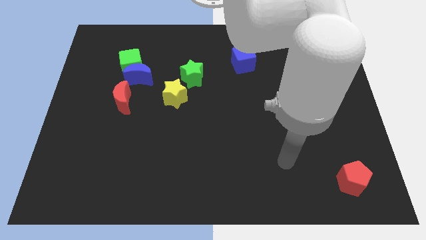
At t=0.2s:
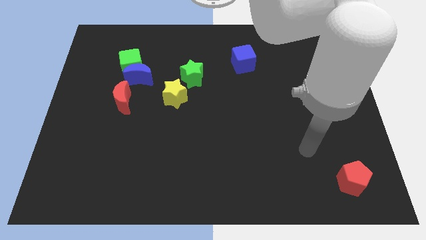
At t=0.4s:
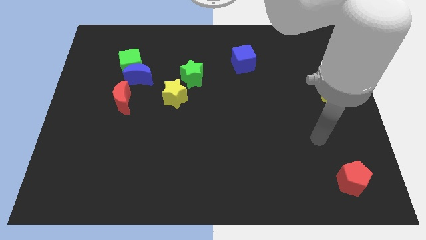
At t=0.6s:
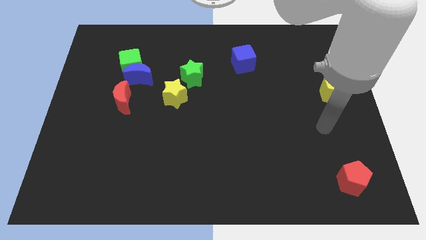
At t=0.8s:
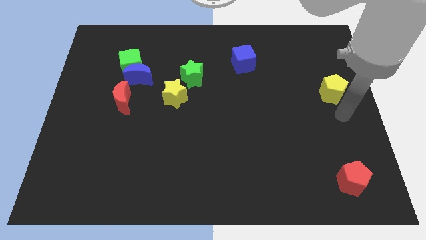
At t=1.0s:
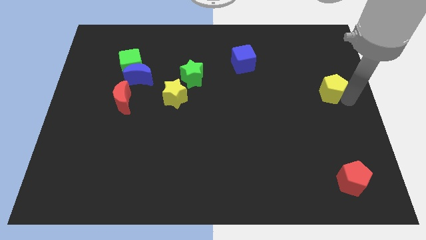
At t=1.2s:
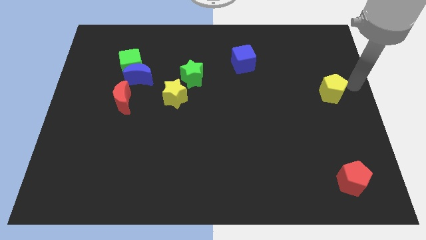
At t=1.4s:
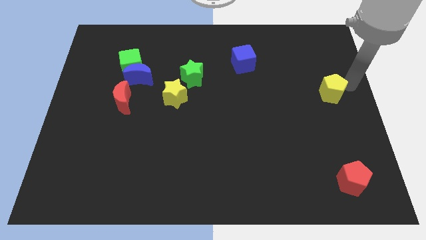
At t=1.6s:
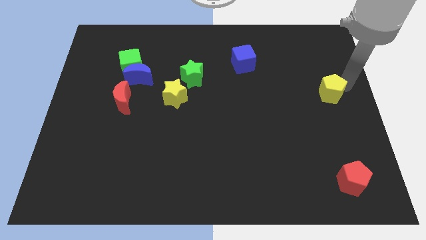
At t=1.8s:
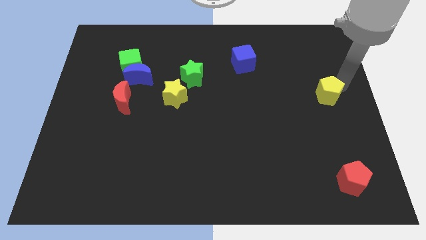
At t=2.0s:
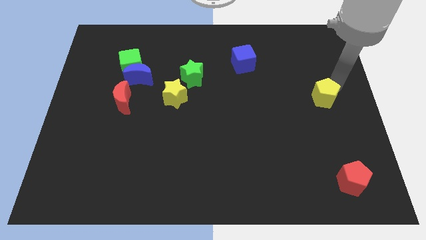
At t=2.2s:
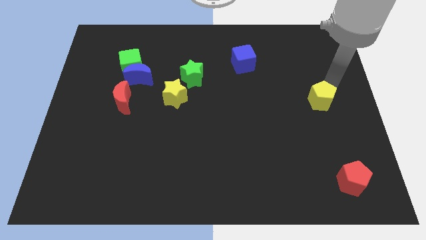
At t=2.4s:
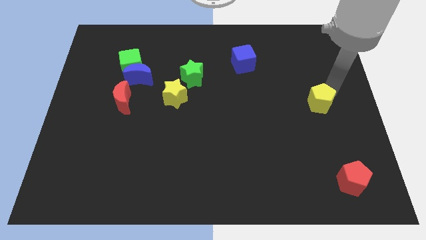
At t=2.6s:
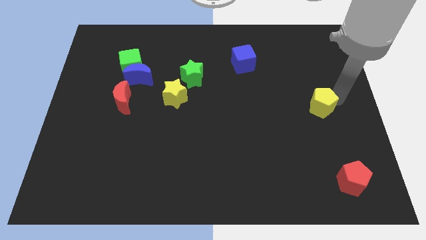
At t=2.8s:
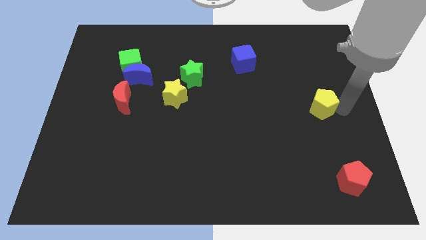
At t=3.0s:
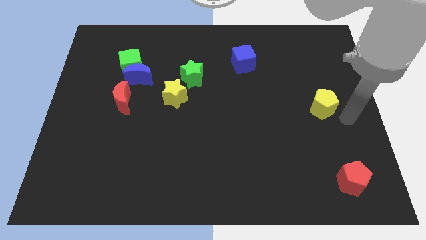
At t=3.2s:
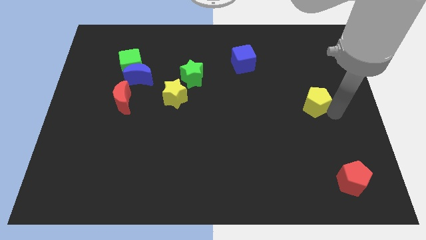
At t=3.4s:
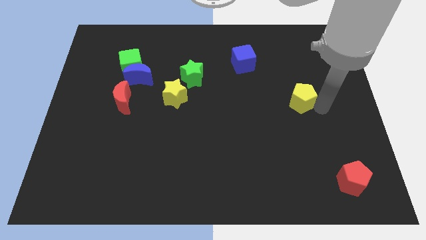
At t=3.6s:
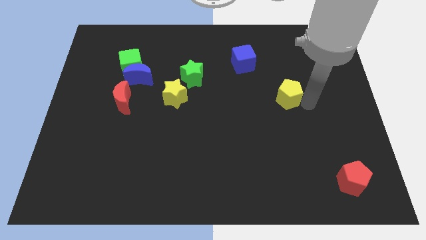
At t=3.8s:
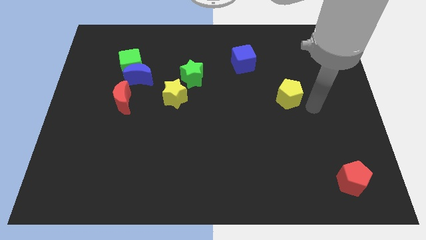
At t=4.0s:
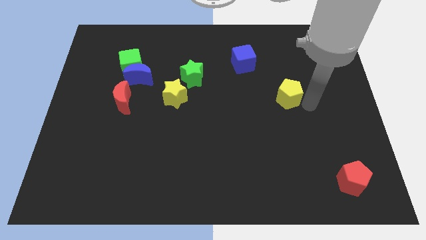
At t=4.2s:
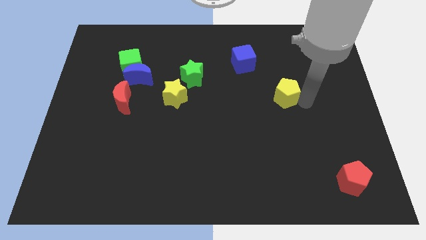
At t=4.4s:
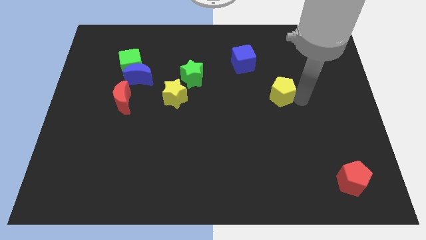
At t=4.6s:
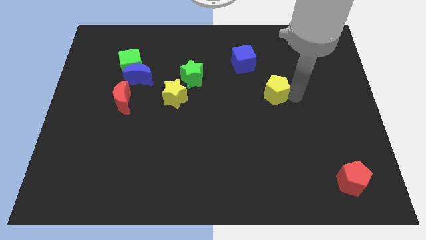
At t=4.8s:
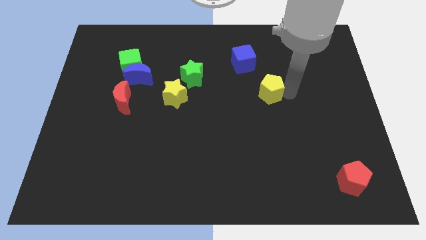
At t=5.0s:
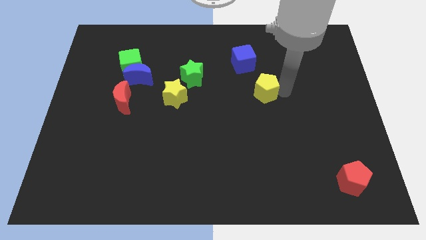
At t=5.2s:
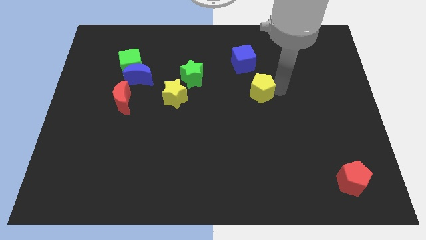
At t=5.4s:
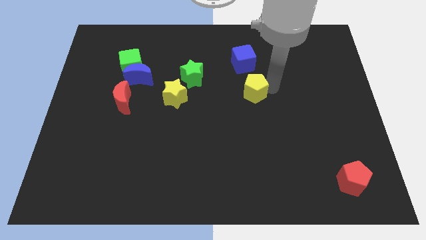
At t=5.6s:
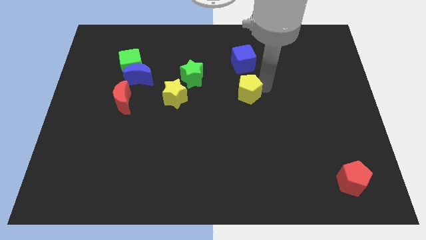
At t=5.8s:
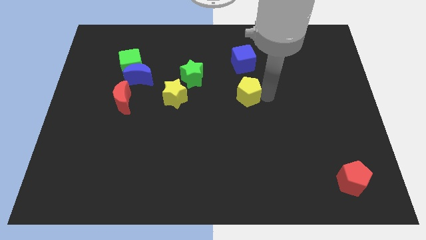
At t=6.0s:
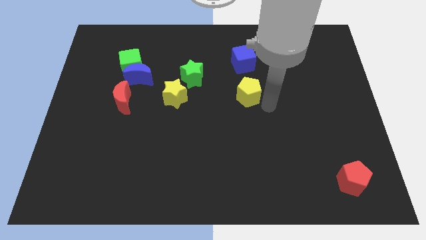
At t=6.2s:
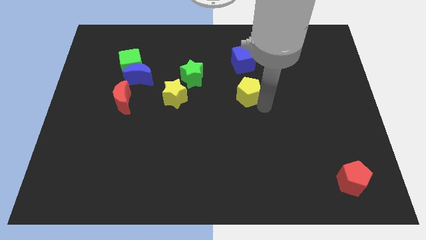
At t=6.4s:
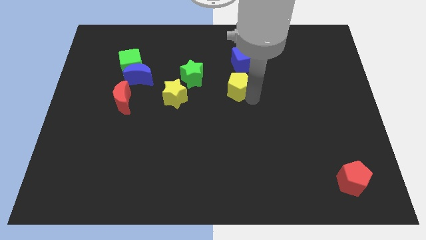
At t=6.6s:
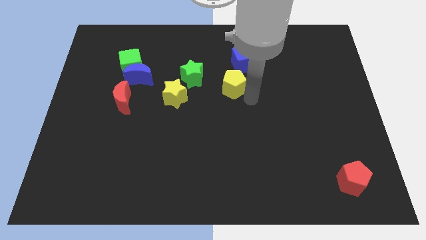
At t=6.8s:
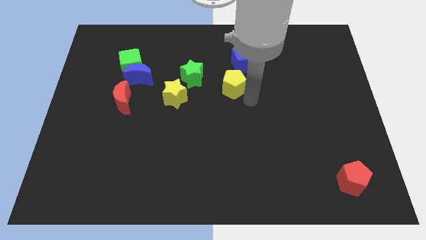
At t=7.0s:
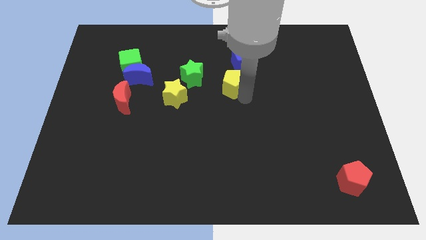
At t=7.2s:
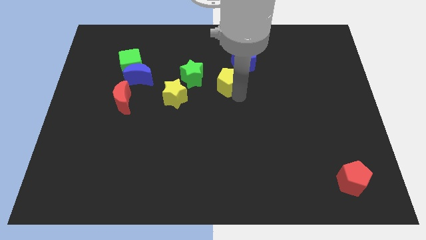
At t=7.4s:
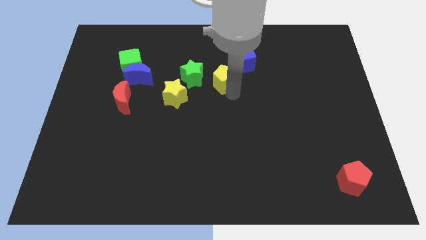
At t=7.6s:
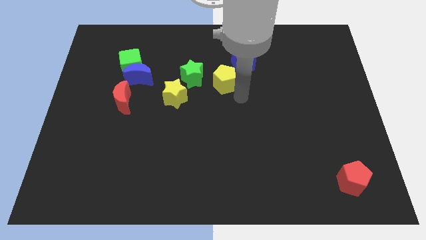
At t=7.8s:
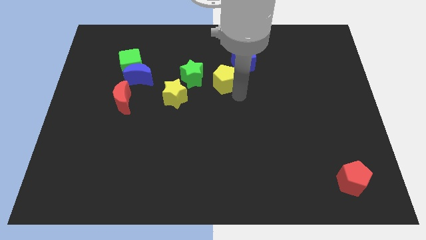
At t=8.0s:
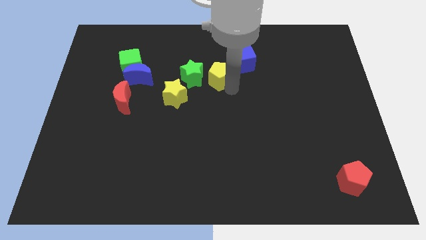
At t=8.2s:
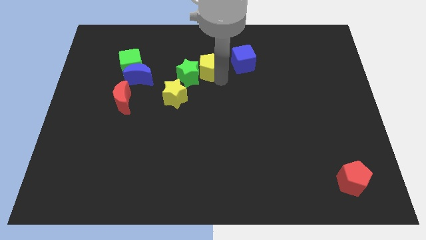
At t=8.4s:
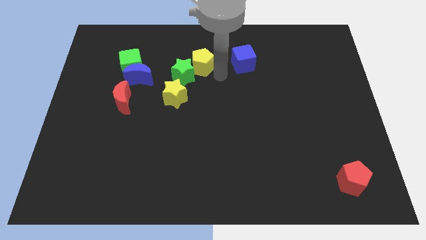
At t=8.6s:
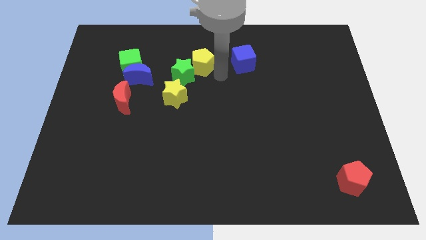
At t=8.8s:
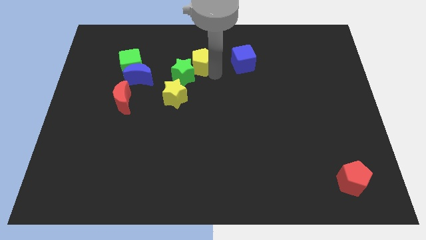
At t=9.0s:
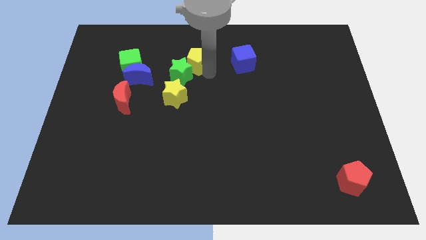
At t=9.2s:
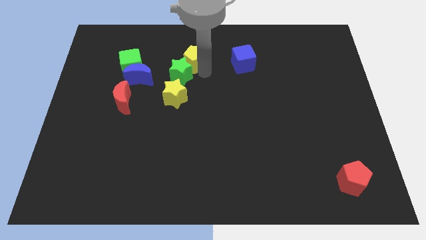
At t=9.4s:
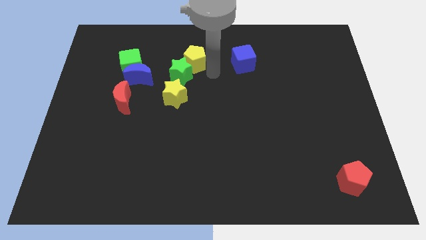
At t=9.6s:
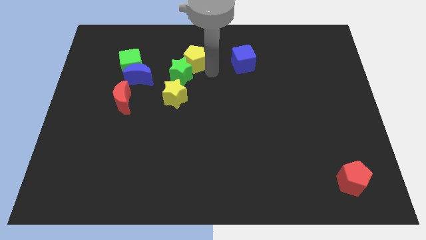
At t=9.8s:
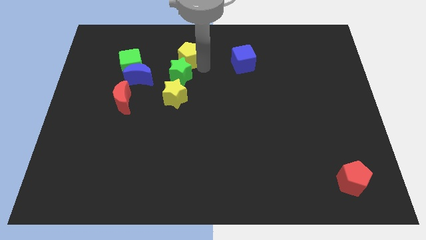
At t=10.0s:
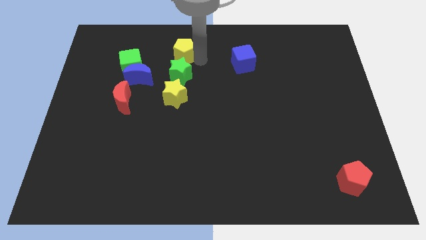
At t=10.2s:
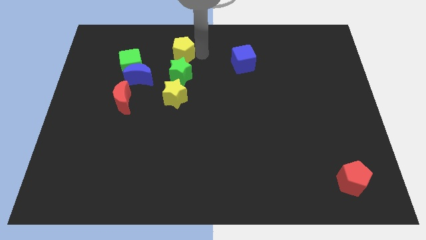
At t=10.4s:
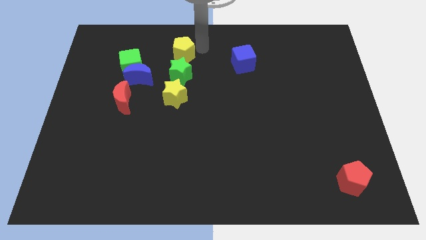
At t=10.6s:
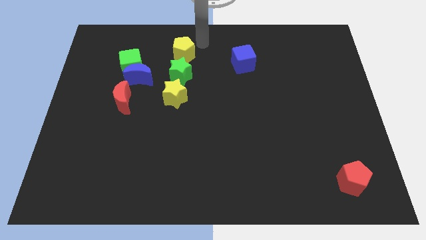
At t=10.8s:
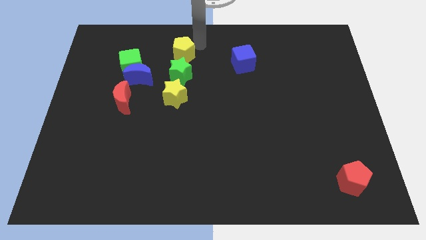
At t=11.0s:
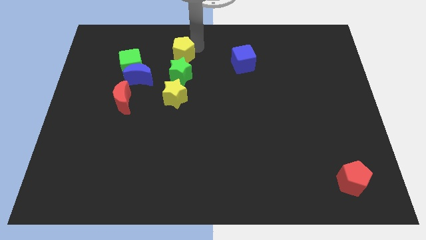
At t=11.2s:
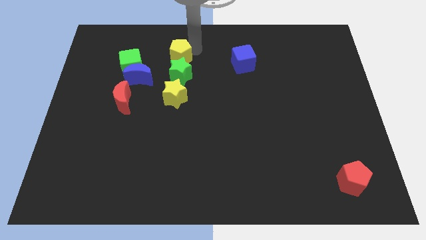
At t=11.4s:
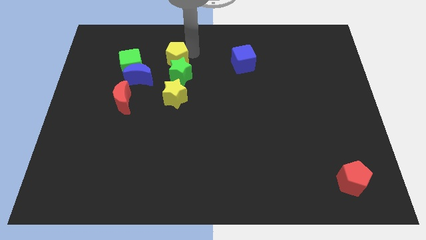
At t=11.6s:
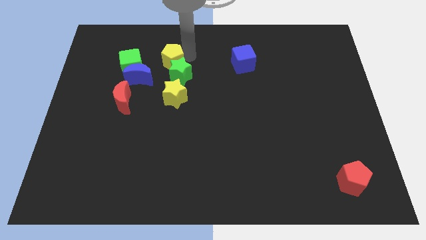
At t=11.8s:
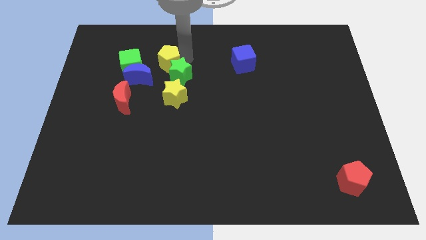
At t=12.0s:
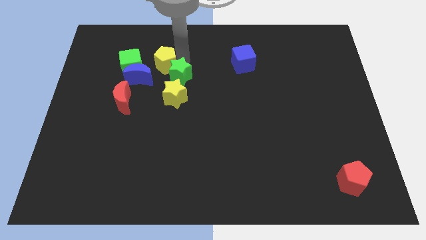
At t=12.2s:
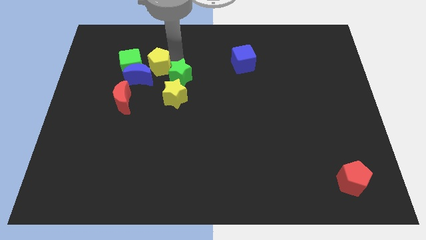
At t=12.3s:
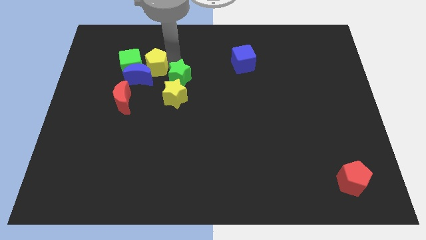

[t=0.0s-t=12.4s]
push the yellow pentagon to the green cube

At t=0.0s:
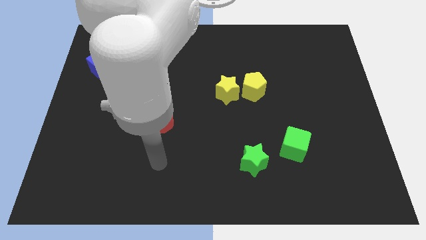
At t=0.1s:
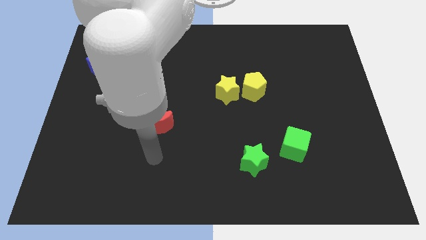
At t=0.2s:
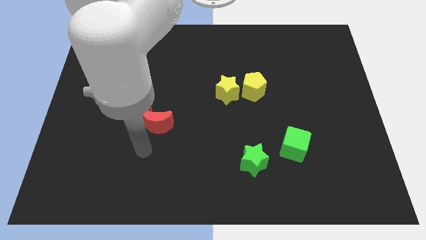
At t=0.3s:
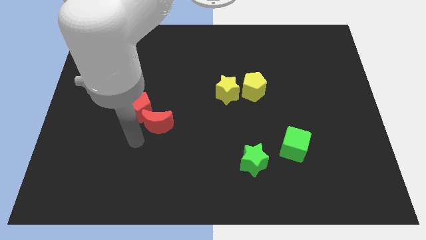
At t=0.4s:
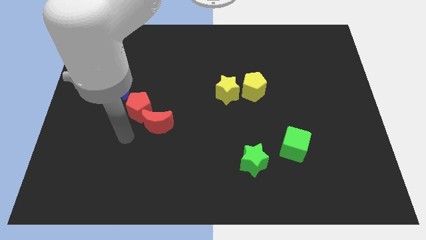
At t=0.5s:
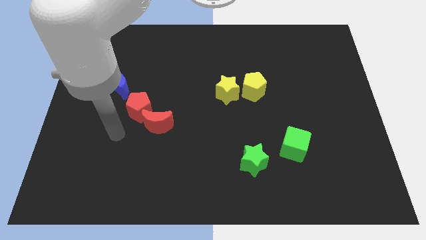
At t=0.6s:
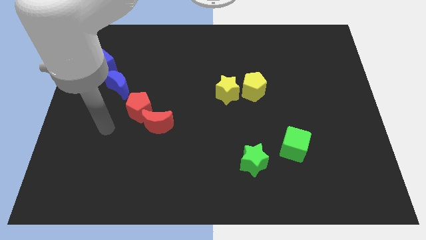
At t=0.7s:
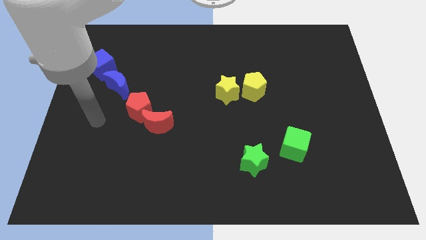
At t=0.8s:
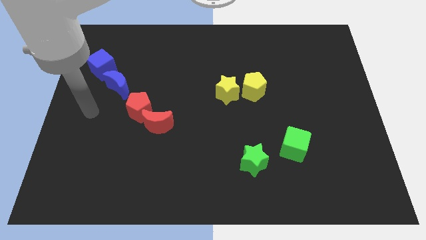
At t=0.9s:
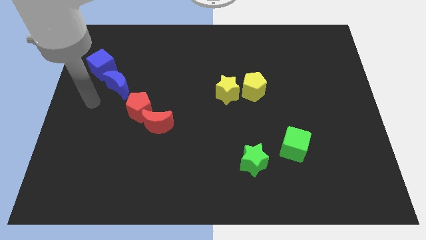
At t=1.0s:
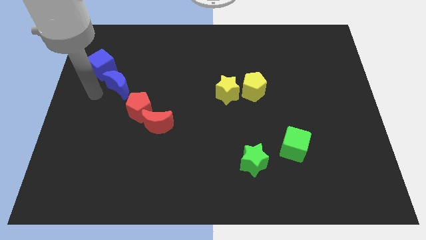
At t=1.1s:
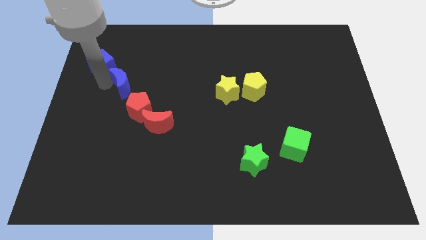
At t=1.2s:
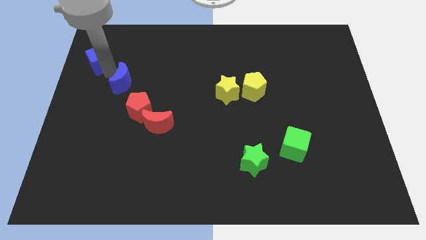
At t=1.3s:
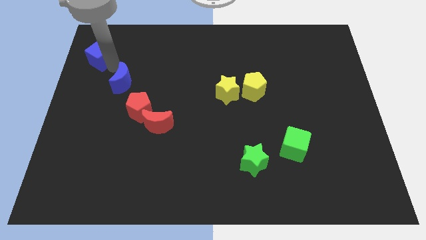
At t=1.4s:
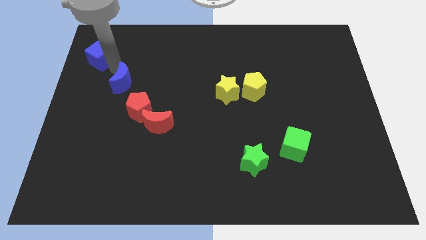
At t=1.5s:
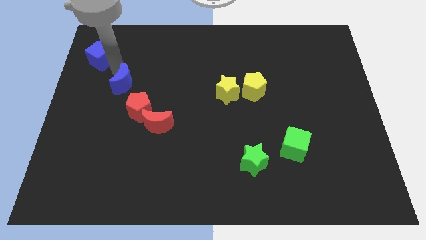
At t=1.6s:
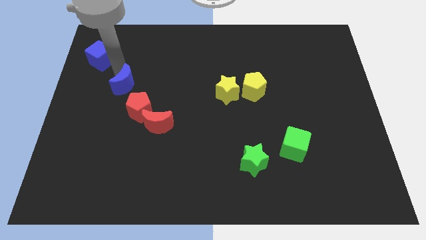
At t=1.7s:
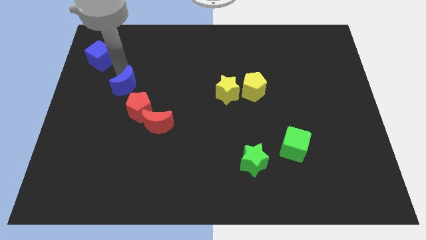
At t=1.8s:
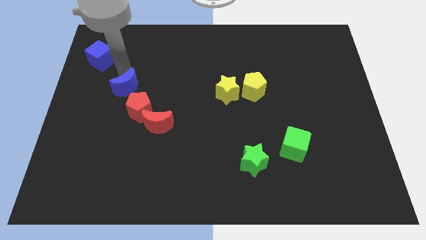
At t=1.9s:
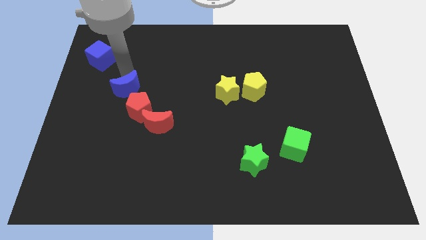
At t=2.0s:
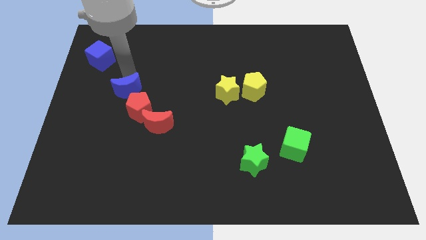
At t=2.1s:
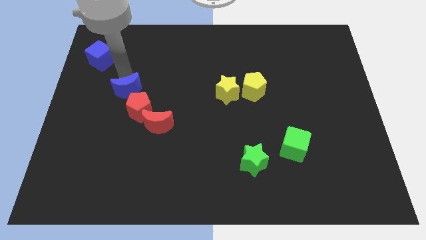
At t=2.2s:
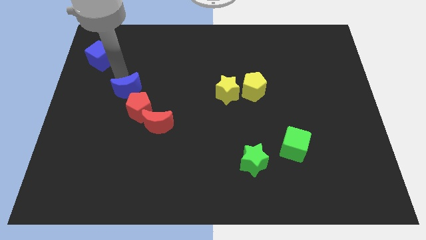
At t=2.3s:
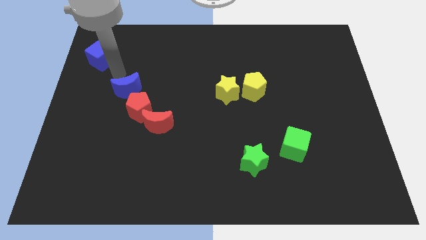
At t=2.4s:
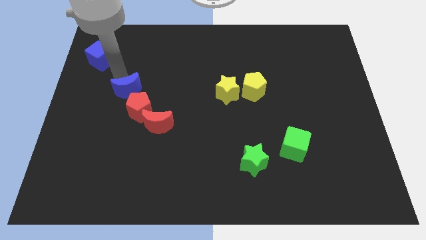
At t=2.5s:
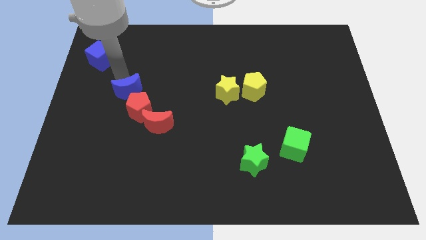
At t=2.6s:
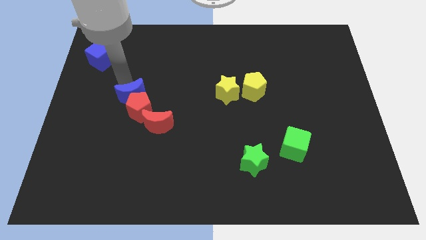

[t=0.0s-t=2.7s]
move the blue moon to the red pentagon
